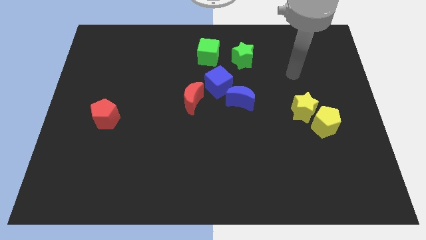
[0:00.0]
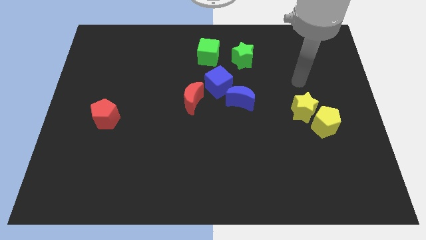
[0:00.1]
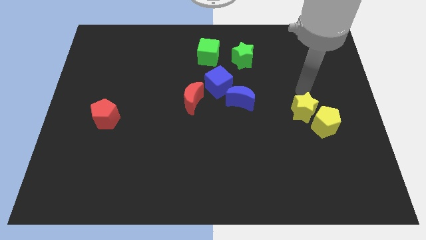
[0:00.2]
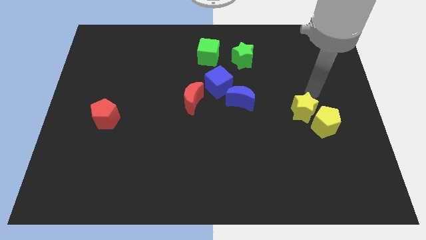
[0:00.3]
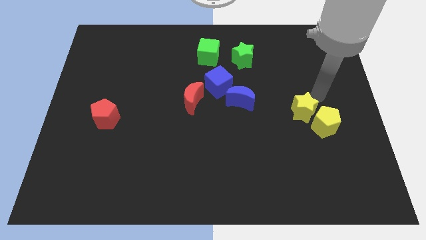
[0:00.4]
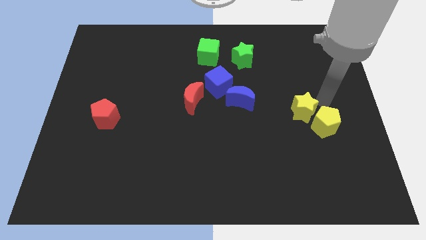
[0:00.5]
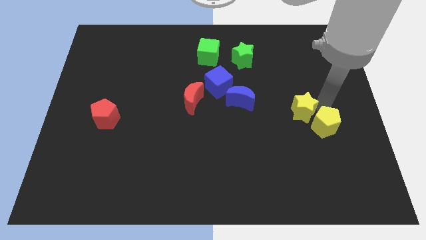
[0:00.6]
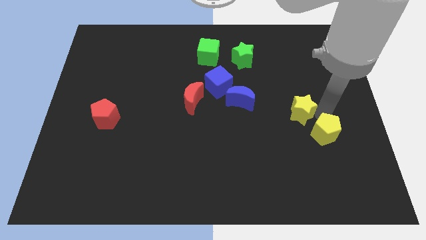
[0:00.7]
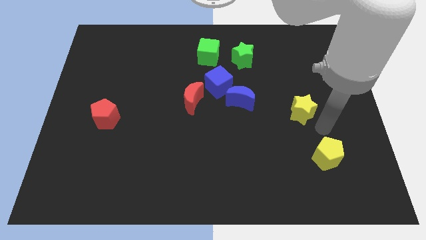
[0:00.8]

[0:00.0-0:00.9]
separate the yellow star from the yellow pentagon

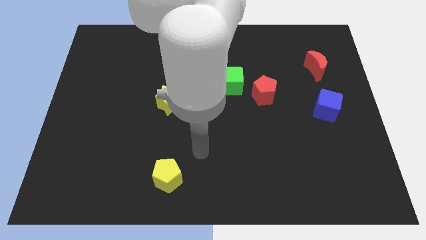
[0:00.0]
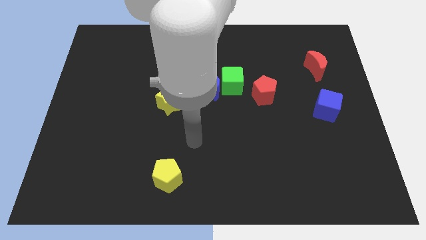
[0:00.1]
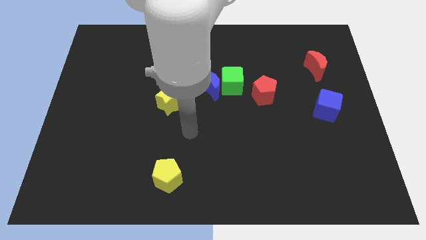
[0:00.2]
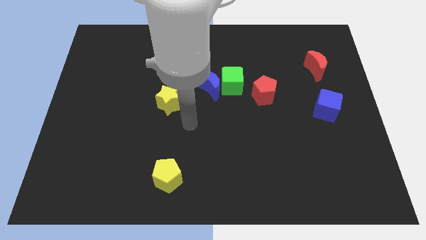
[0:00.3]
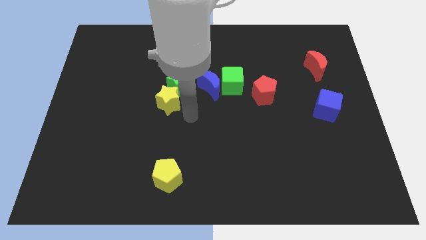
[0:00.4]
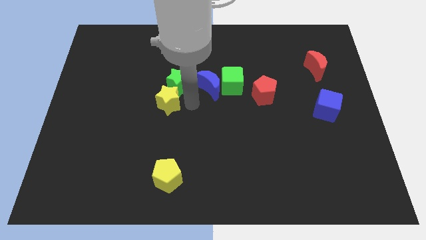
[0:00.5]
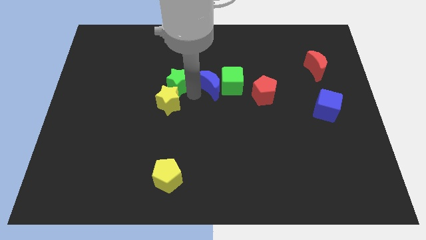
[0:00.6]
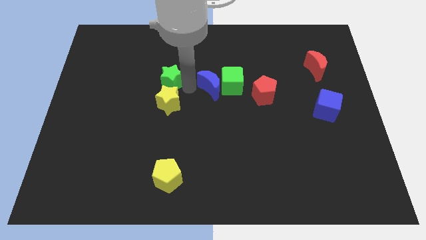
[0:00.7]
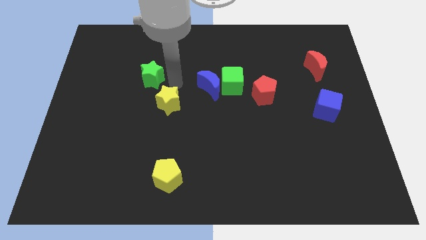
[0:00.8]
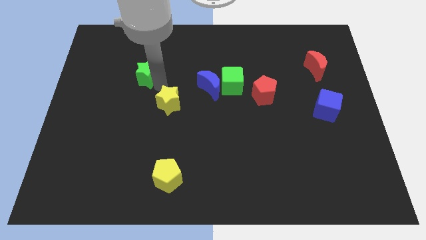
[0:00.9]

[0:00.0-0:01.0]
pull the yellow star apart from the green star

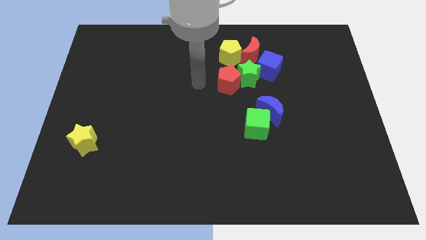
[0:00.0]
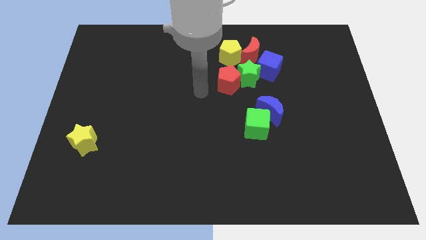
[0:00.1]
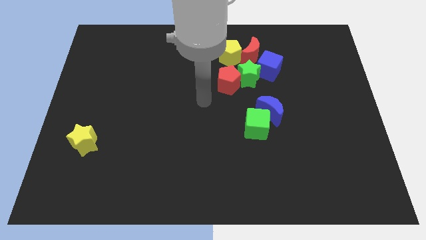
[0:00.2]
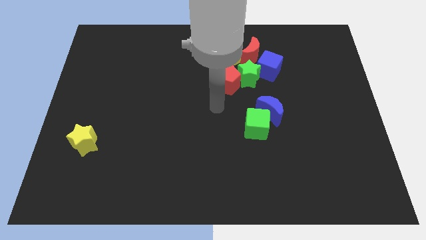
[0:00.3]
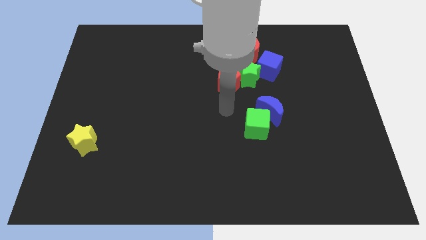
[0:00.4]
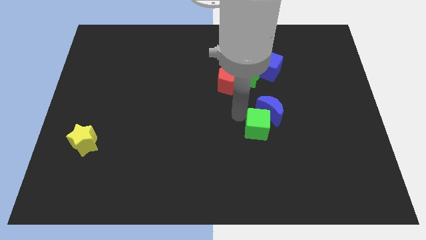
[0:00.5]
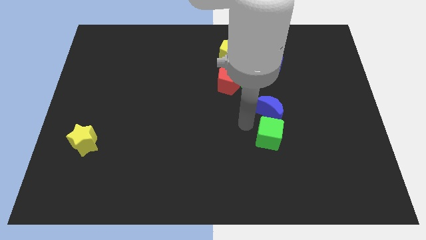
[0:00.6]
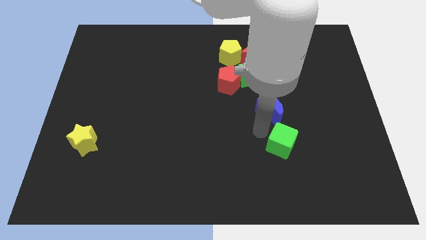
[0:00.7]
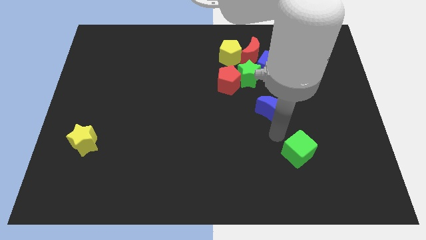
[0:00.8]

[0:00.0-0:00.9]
move the blue moon away from the green cube

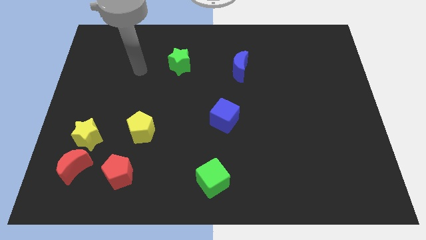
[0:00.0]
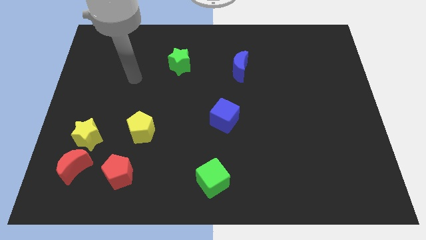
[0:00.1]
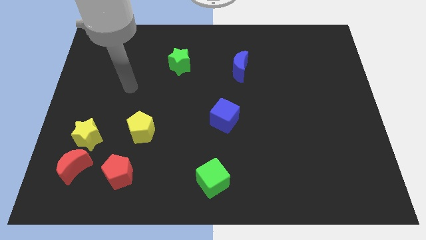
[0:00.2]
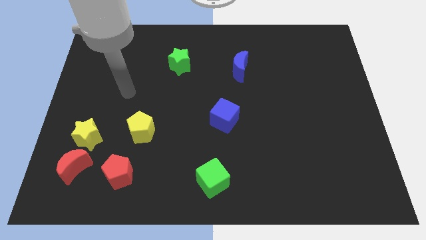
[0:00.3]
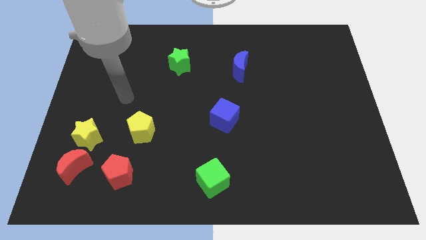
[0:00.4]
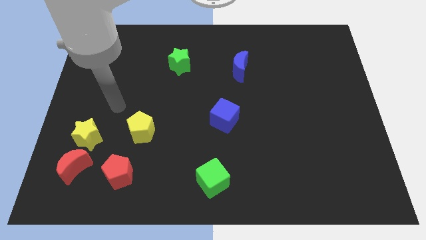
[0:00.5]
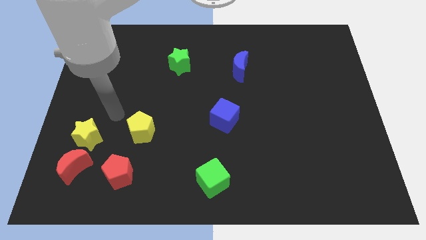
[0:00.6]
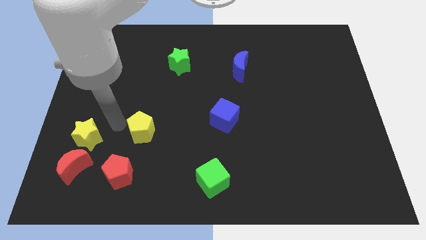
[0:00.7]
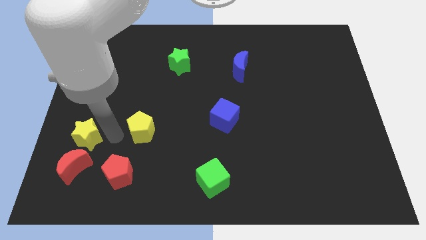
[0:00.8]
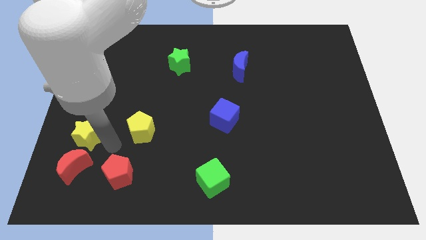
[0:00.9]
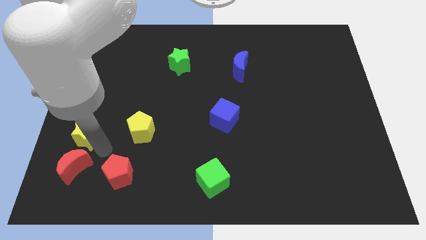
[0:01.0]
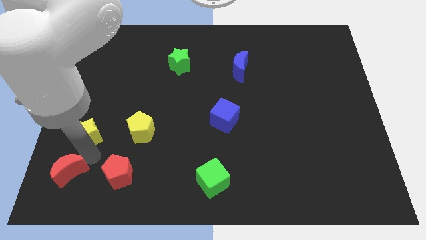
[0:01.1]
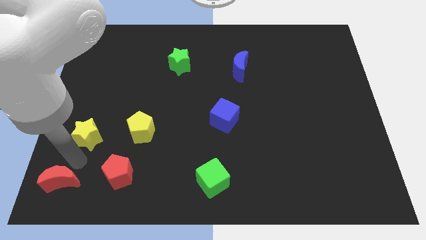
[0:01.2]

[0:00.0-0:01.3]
separate the yellow star from the red moon

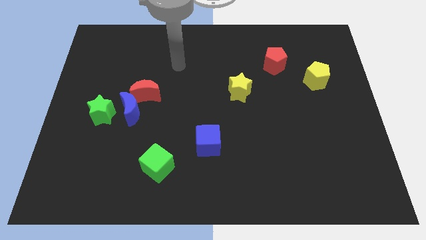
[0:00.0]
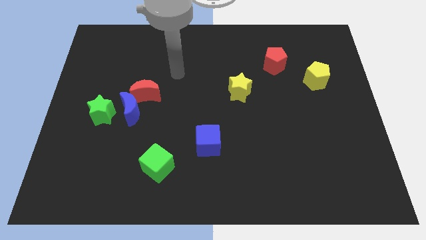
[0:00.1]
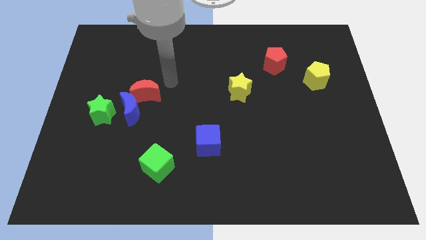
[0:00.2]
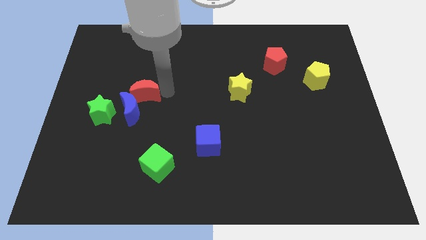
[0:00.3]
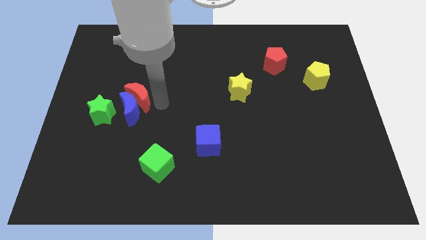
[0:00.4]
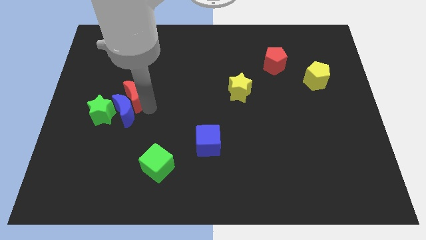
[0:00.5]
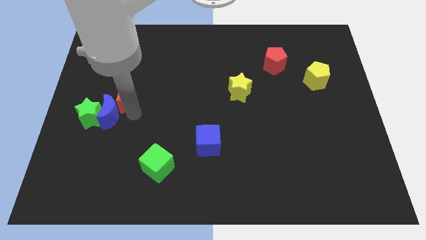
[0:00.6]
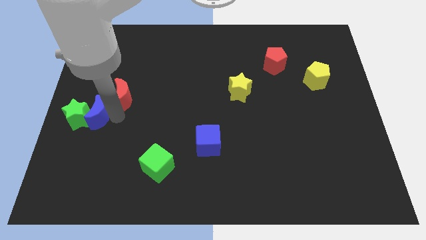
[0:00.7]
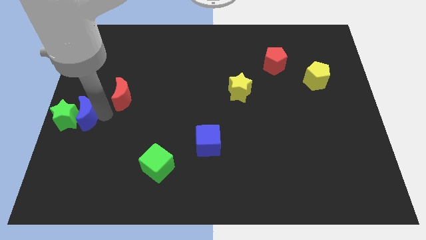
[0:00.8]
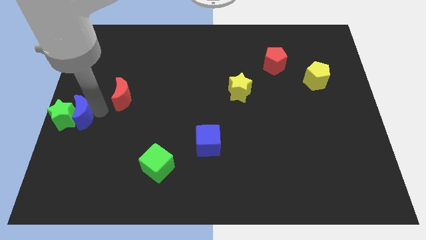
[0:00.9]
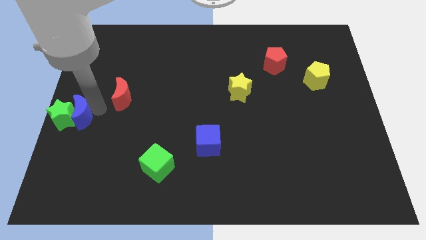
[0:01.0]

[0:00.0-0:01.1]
move the red moon away from the blue moon

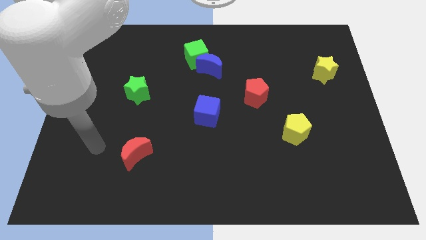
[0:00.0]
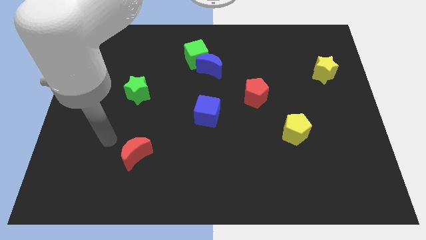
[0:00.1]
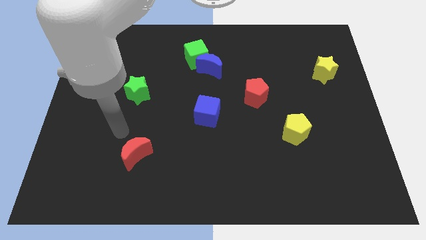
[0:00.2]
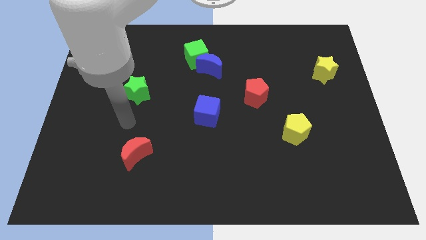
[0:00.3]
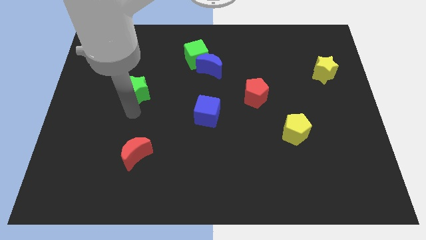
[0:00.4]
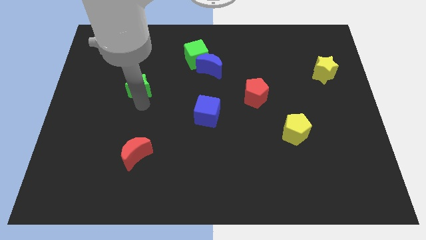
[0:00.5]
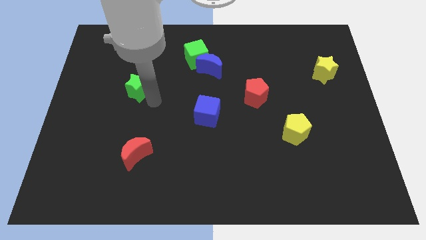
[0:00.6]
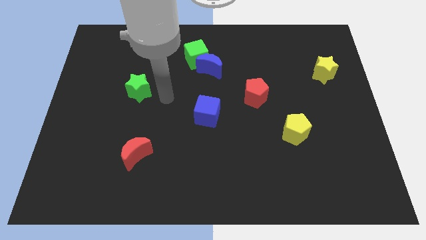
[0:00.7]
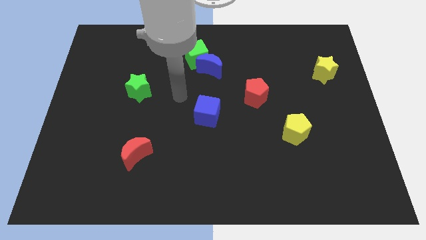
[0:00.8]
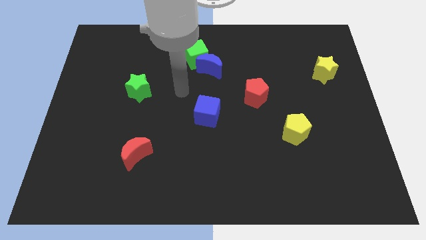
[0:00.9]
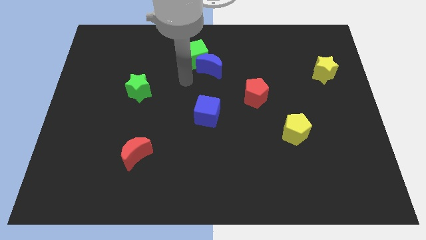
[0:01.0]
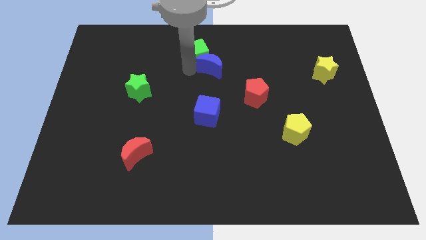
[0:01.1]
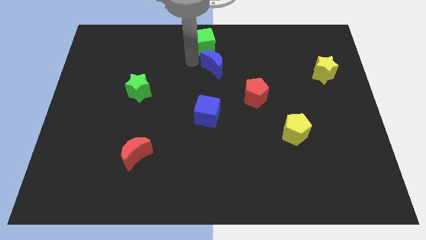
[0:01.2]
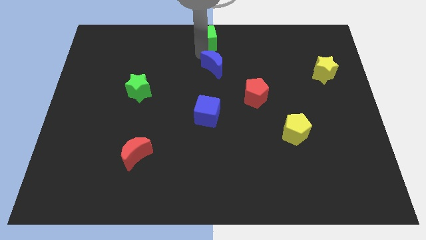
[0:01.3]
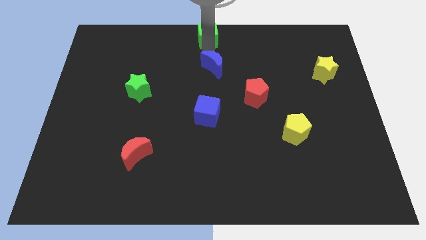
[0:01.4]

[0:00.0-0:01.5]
separate the blue moon from the green cube

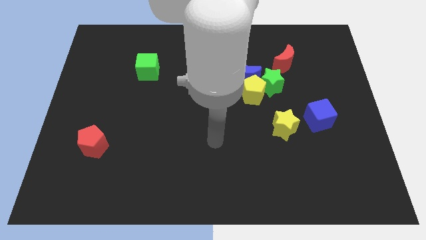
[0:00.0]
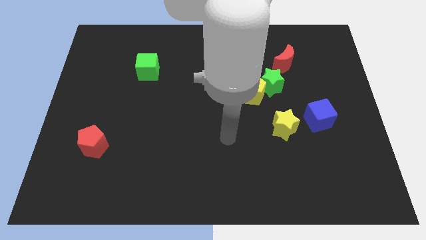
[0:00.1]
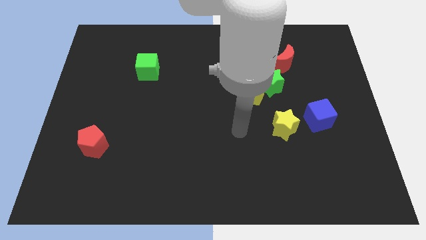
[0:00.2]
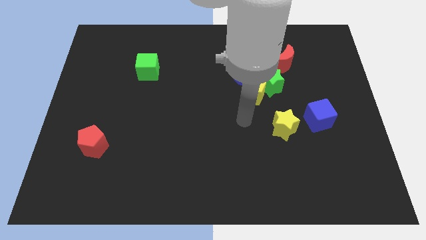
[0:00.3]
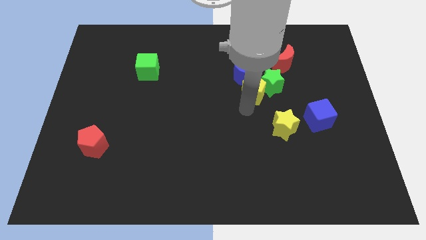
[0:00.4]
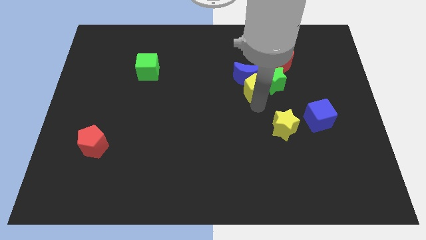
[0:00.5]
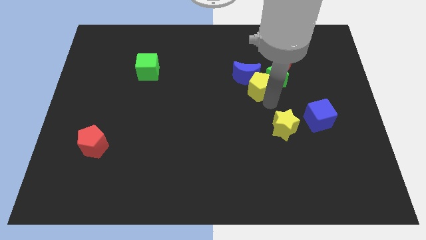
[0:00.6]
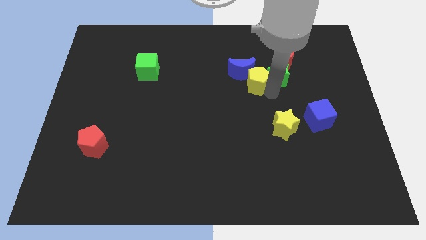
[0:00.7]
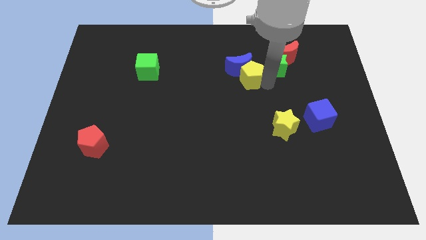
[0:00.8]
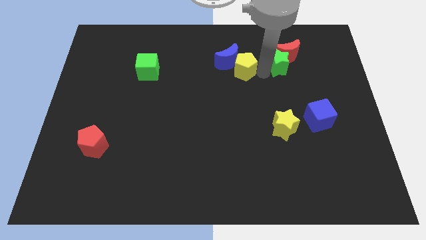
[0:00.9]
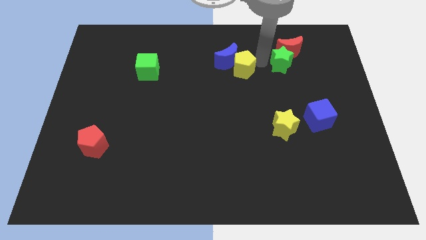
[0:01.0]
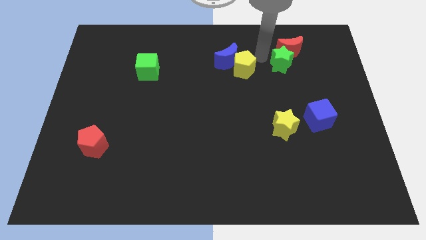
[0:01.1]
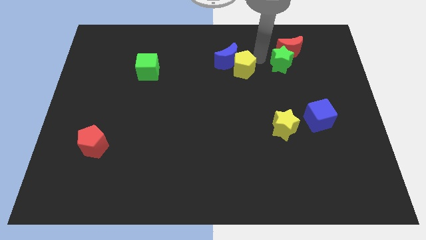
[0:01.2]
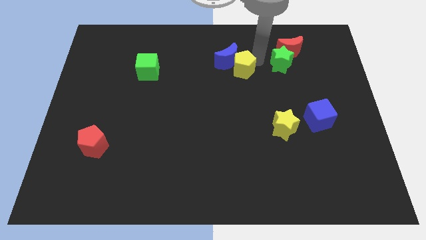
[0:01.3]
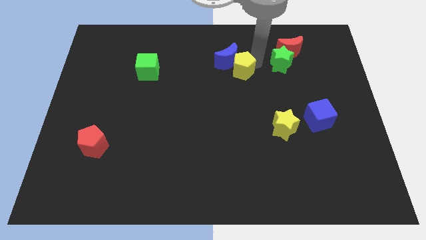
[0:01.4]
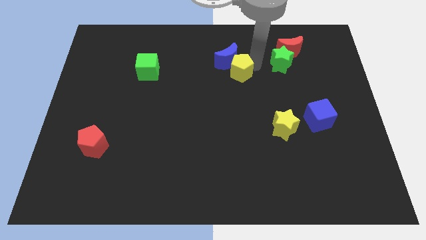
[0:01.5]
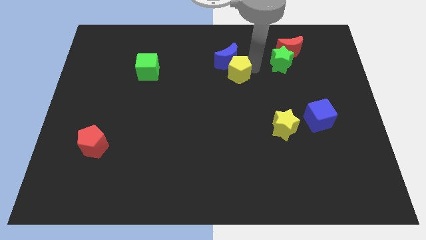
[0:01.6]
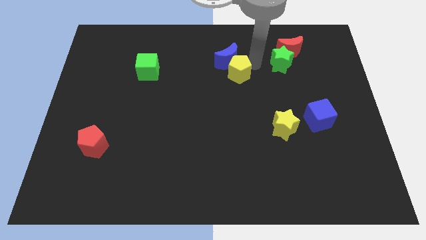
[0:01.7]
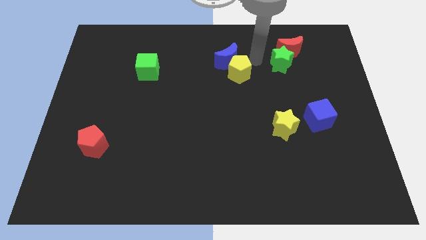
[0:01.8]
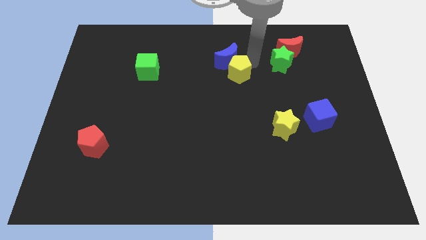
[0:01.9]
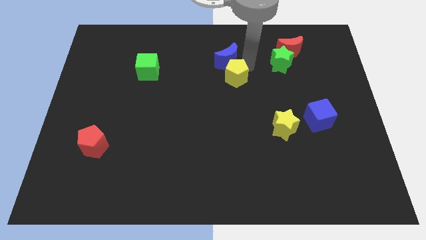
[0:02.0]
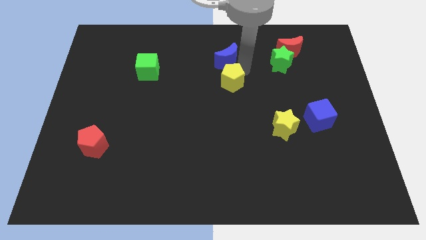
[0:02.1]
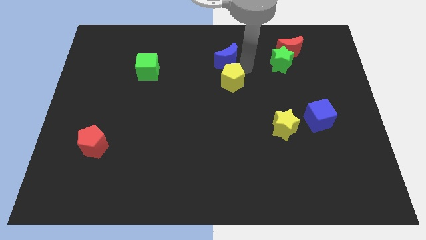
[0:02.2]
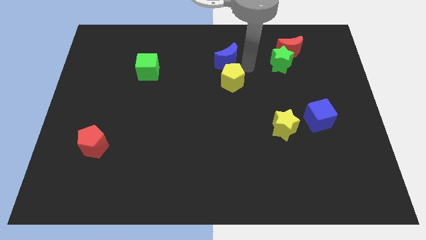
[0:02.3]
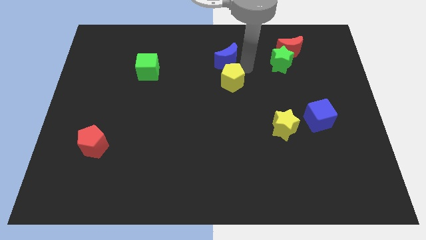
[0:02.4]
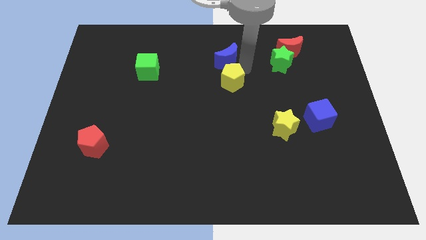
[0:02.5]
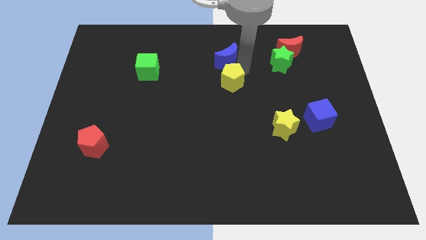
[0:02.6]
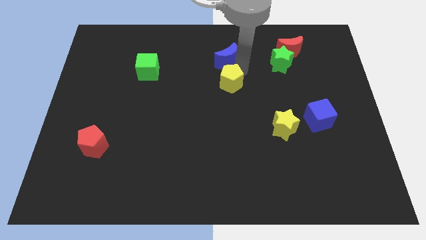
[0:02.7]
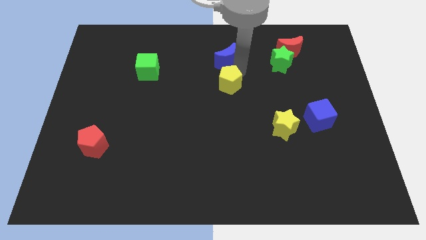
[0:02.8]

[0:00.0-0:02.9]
pull the yellow pentagon apart from the blue moon and green star
